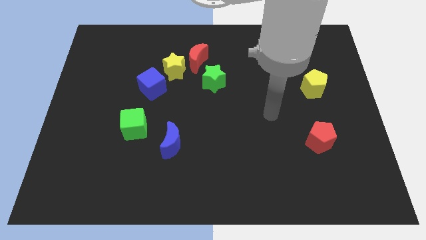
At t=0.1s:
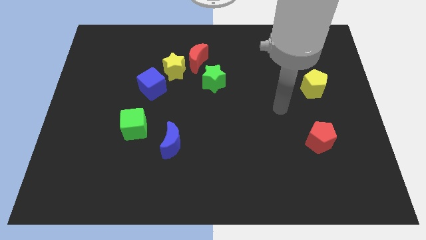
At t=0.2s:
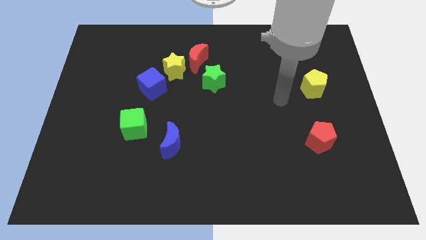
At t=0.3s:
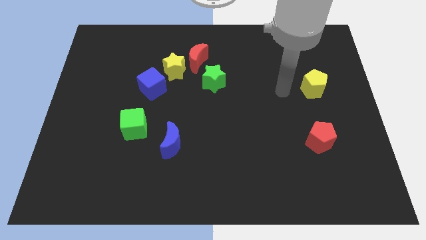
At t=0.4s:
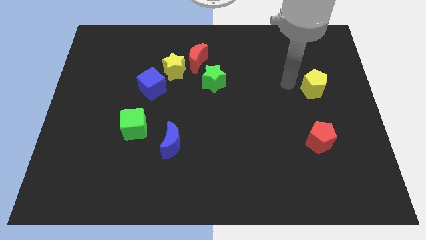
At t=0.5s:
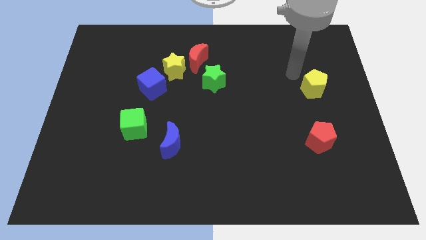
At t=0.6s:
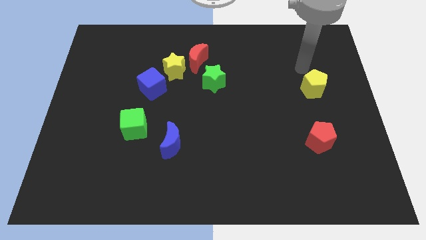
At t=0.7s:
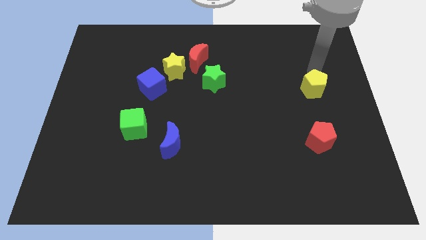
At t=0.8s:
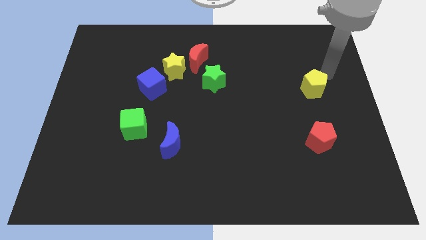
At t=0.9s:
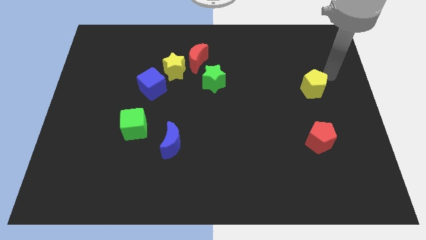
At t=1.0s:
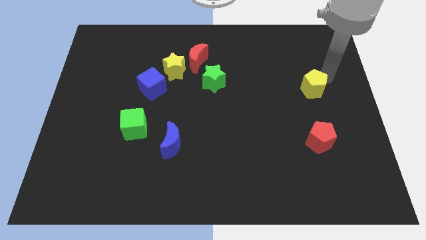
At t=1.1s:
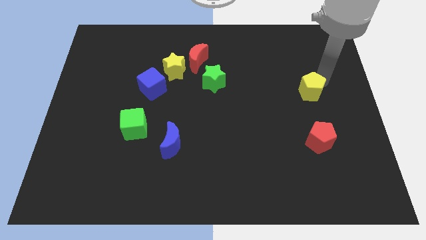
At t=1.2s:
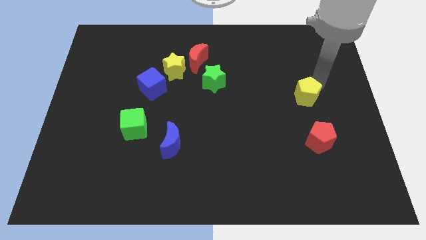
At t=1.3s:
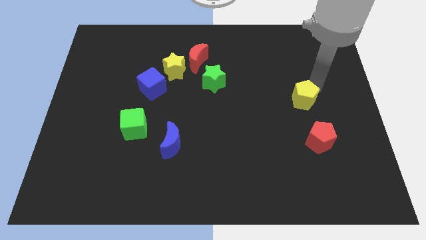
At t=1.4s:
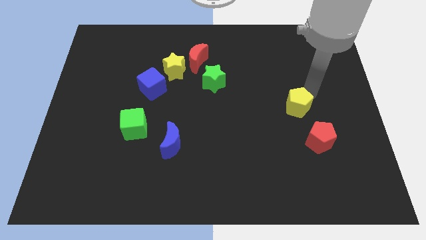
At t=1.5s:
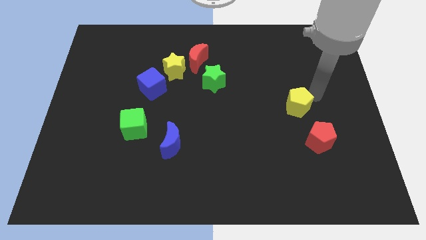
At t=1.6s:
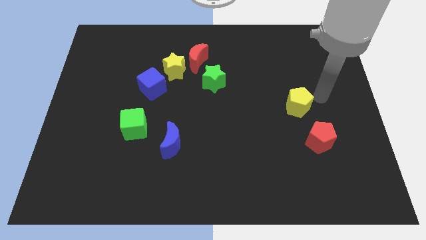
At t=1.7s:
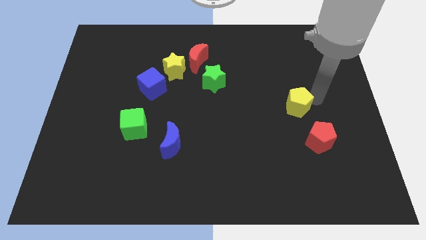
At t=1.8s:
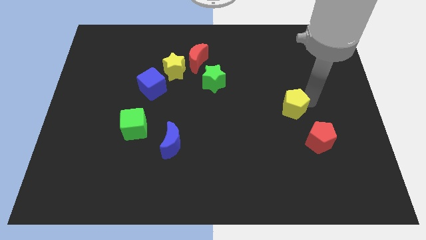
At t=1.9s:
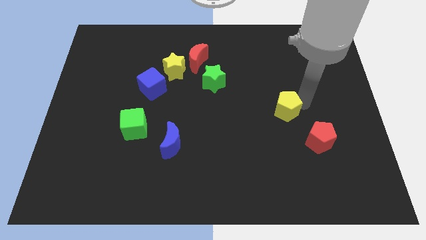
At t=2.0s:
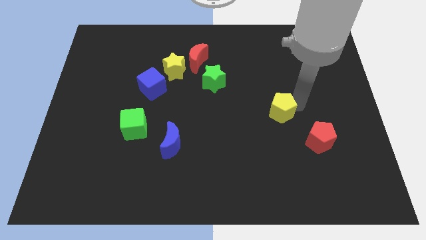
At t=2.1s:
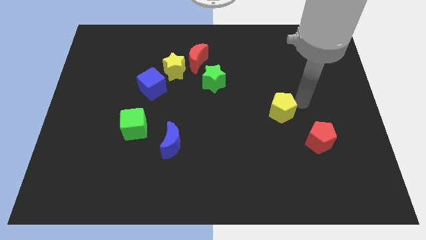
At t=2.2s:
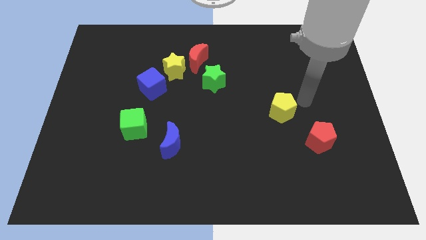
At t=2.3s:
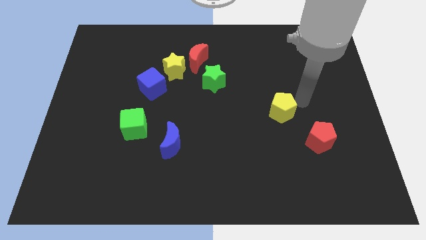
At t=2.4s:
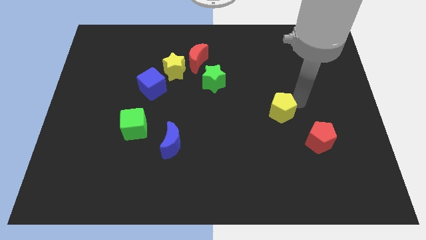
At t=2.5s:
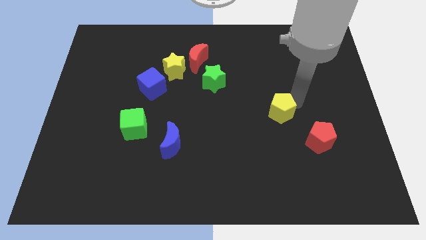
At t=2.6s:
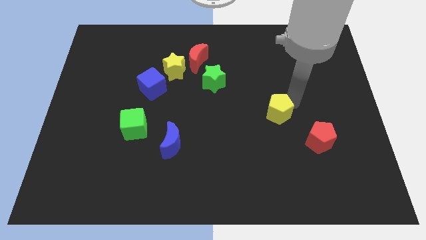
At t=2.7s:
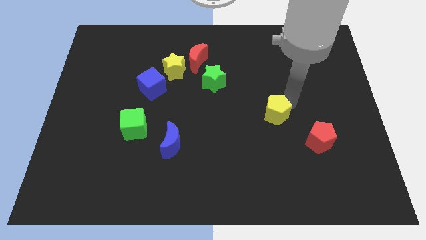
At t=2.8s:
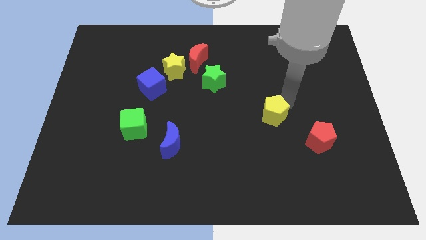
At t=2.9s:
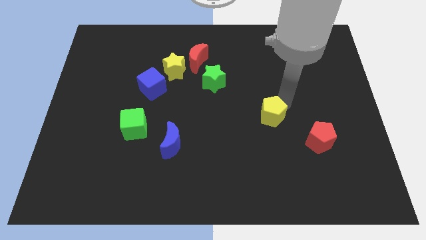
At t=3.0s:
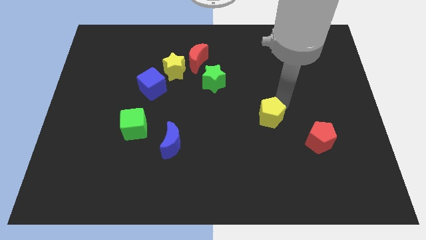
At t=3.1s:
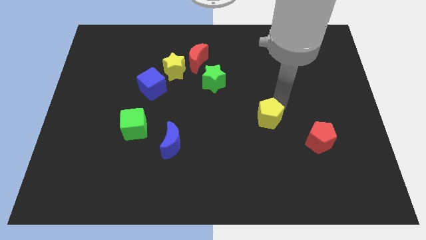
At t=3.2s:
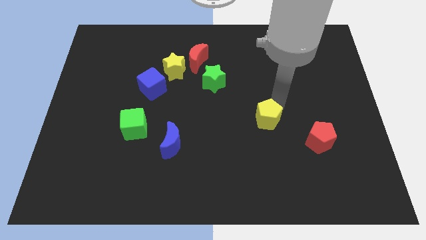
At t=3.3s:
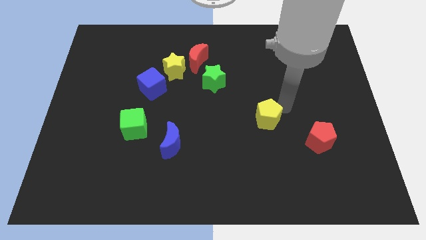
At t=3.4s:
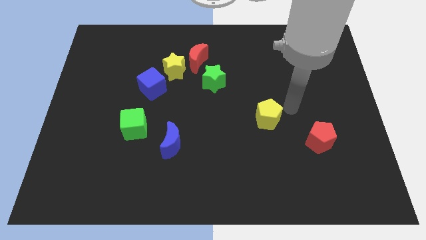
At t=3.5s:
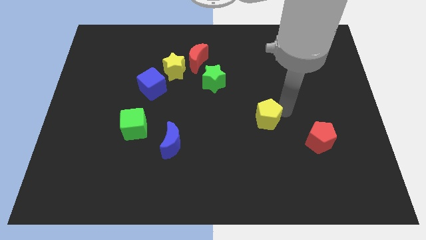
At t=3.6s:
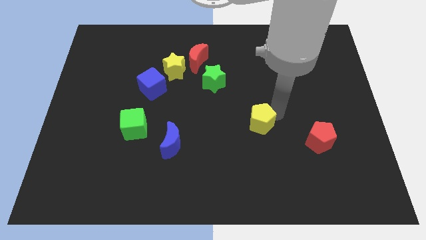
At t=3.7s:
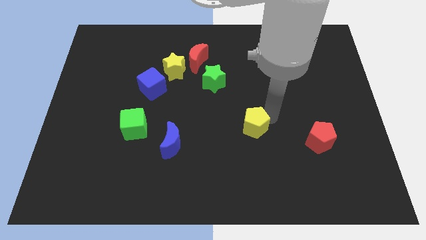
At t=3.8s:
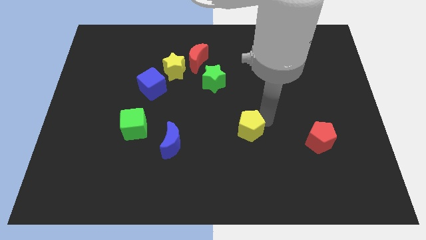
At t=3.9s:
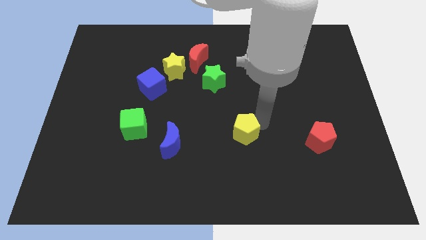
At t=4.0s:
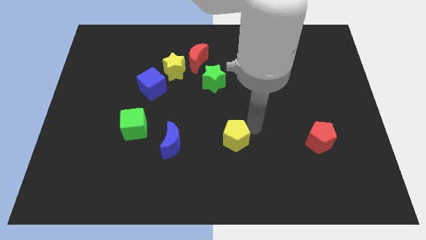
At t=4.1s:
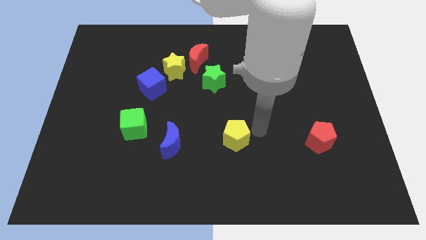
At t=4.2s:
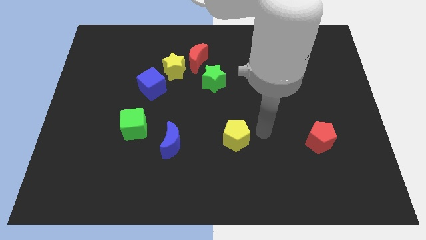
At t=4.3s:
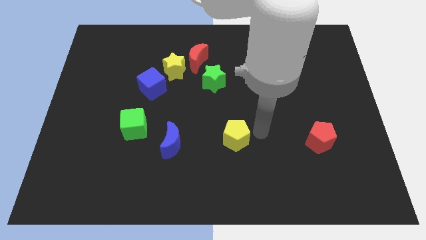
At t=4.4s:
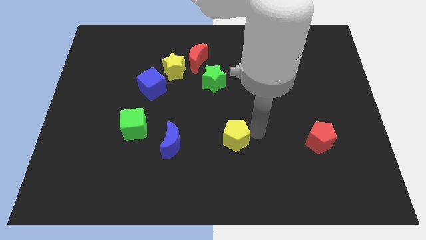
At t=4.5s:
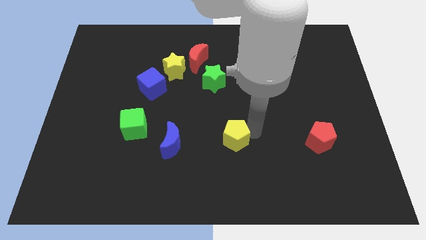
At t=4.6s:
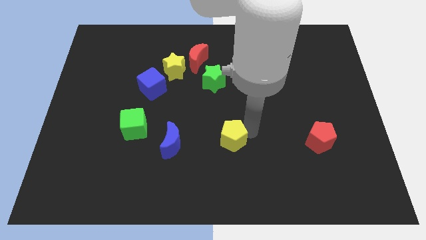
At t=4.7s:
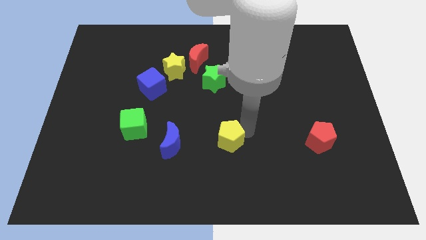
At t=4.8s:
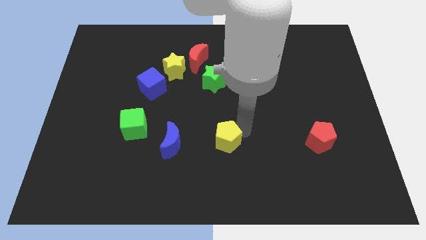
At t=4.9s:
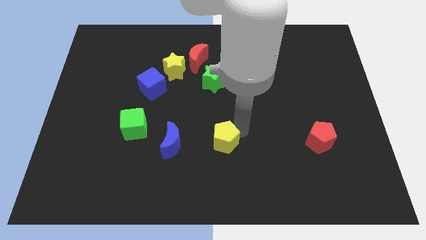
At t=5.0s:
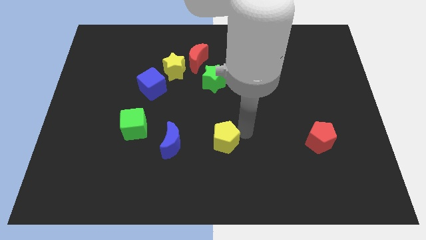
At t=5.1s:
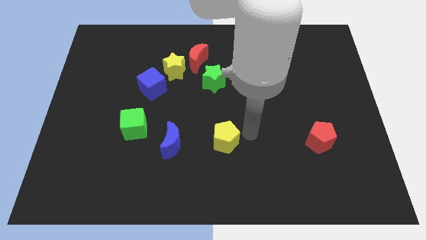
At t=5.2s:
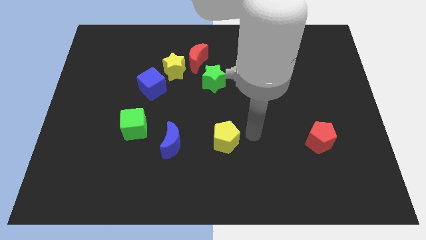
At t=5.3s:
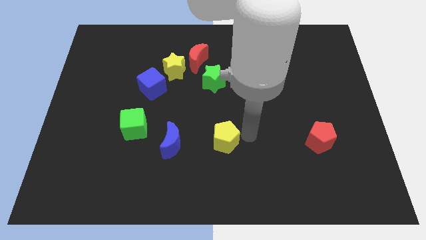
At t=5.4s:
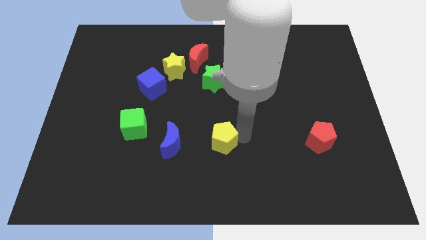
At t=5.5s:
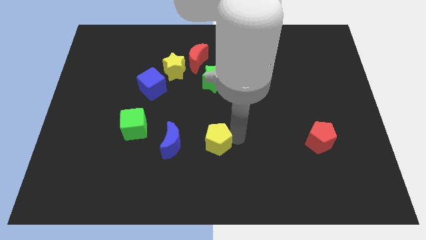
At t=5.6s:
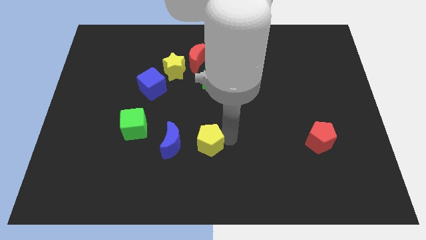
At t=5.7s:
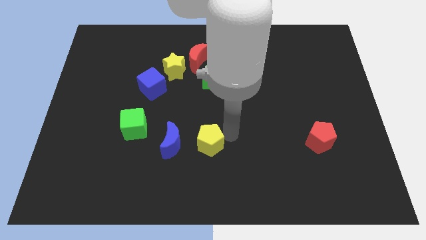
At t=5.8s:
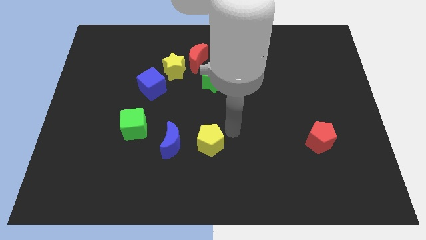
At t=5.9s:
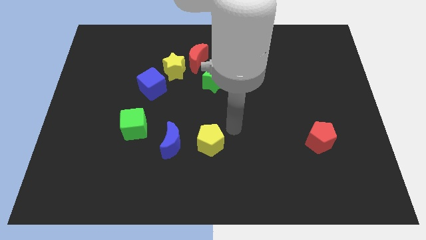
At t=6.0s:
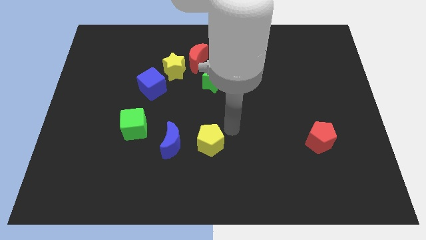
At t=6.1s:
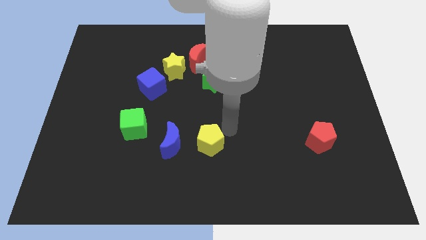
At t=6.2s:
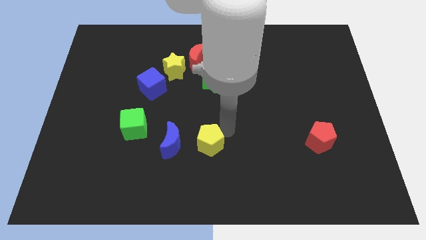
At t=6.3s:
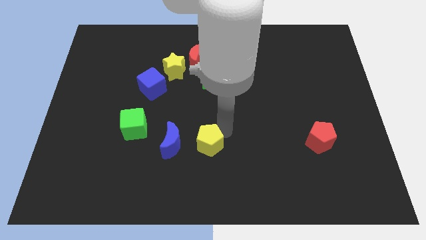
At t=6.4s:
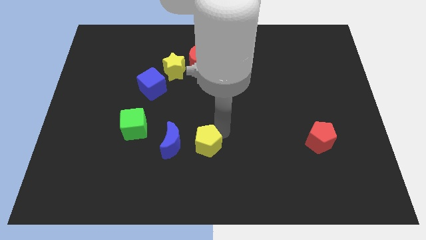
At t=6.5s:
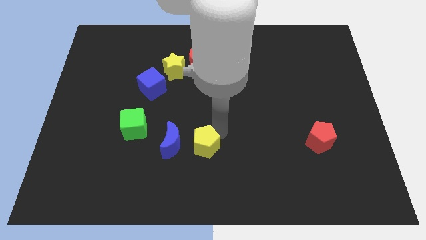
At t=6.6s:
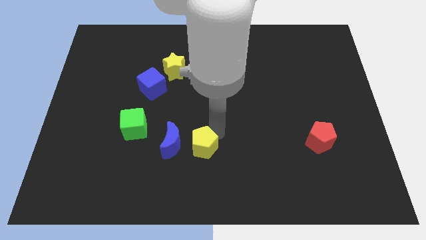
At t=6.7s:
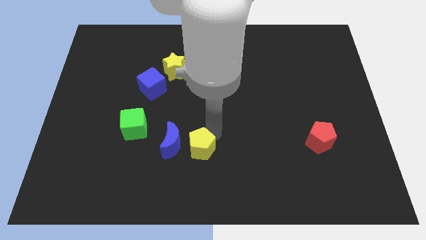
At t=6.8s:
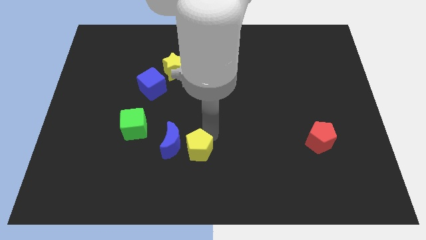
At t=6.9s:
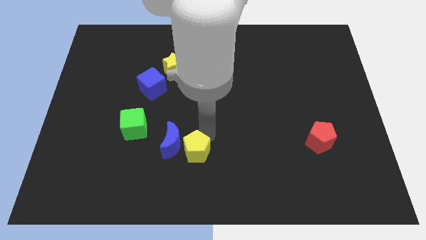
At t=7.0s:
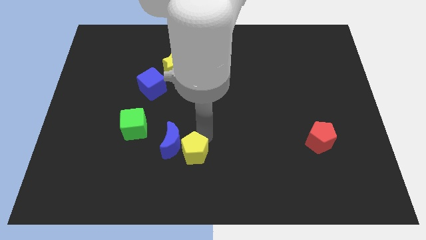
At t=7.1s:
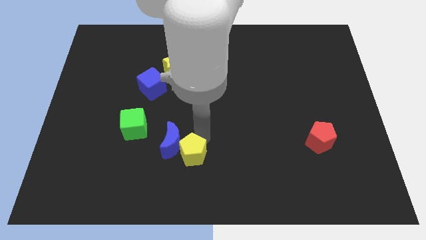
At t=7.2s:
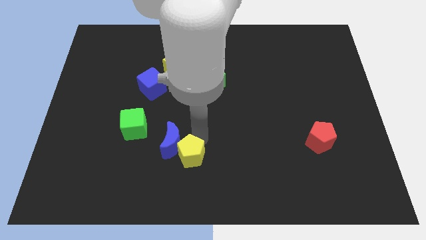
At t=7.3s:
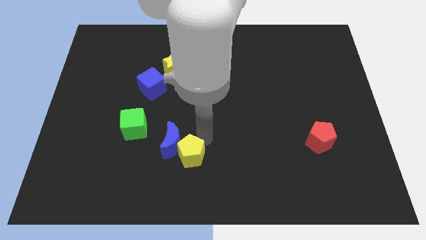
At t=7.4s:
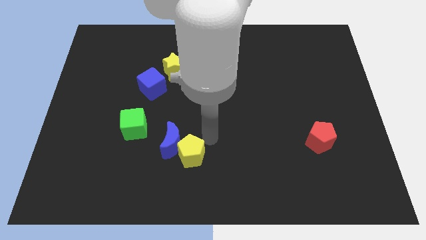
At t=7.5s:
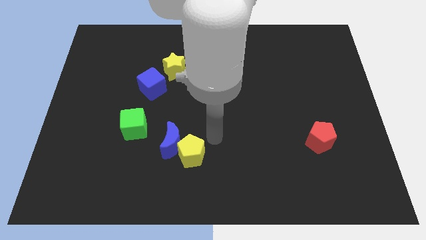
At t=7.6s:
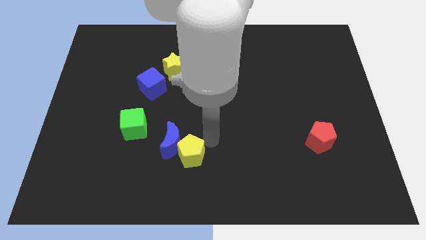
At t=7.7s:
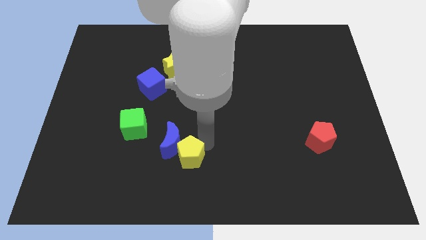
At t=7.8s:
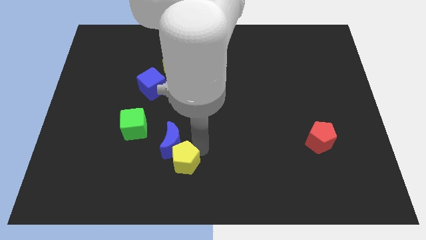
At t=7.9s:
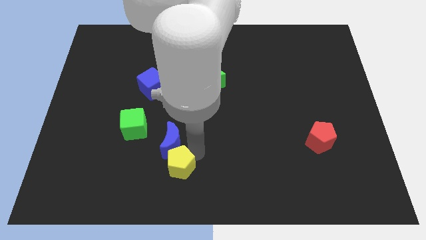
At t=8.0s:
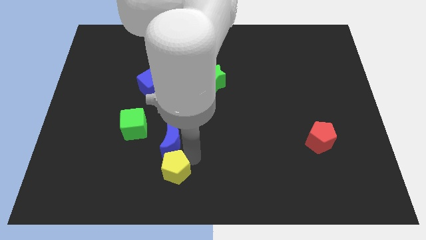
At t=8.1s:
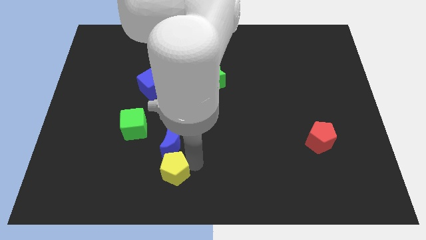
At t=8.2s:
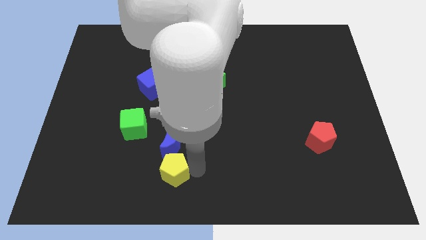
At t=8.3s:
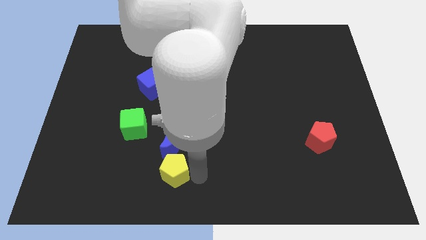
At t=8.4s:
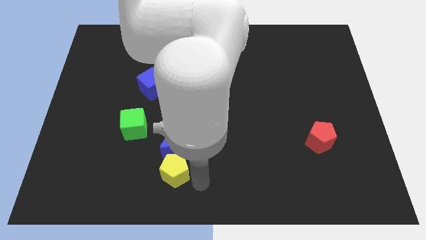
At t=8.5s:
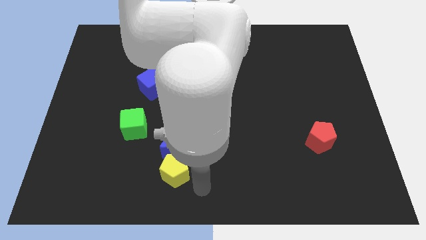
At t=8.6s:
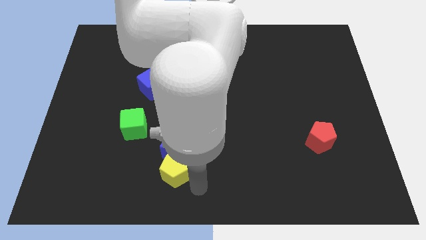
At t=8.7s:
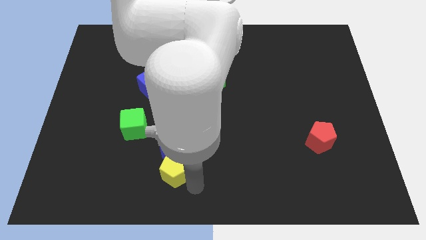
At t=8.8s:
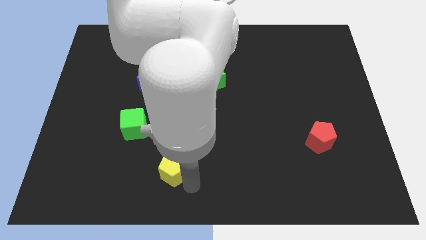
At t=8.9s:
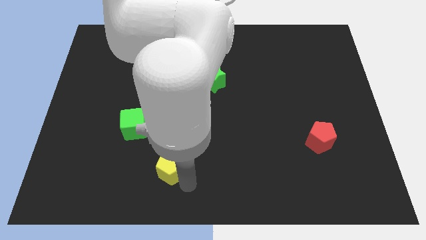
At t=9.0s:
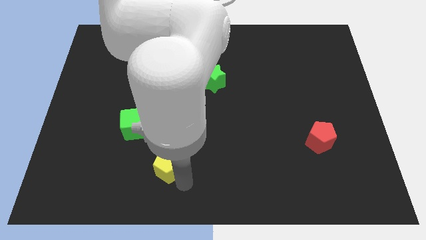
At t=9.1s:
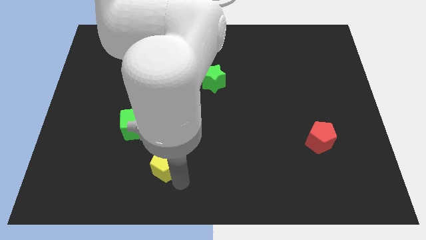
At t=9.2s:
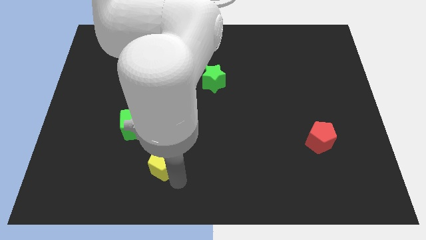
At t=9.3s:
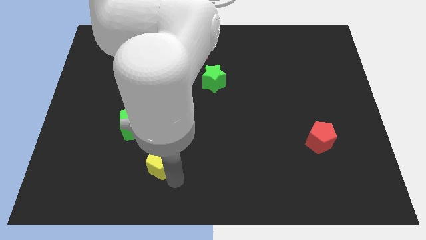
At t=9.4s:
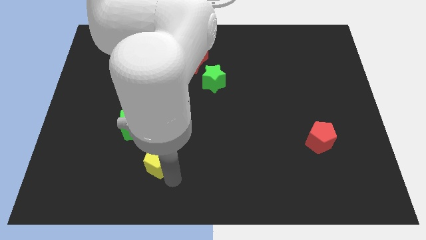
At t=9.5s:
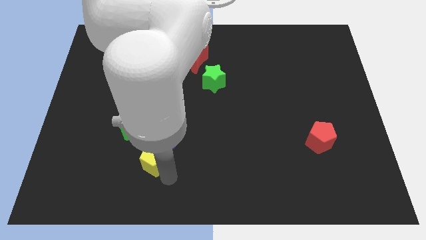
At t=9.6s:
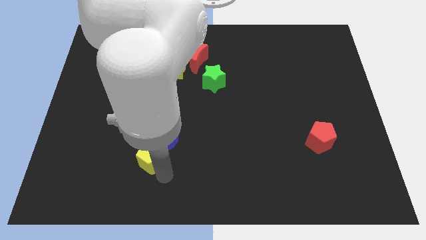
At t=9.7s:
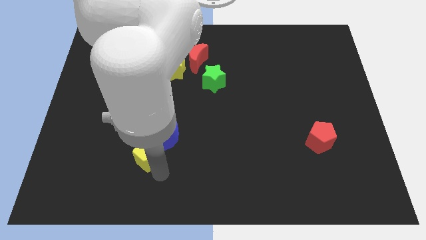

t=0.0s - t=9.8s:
slide the yellow pentagon left of the blue moon
